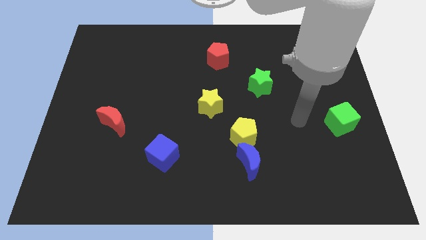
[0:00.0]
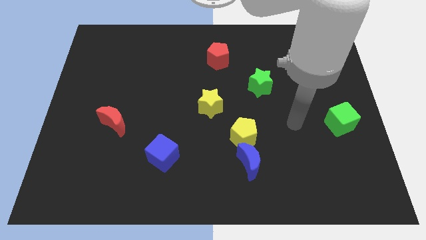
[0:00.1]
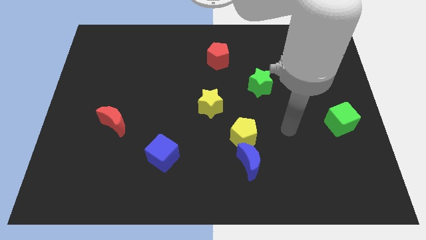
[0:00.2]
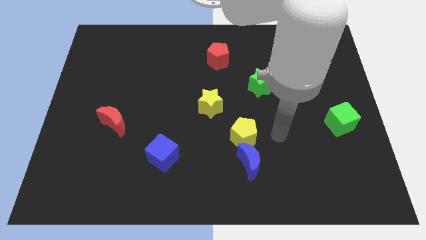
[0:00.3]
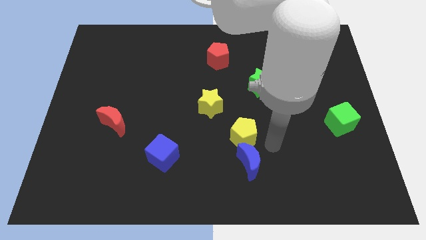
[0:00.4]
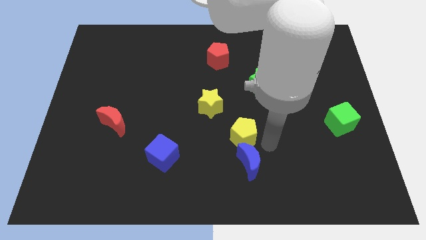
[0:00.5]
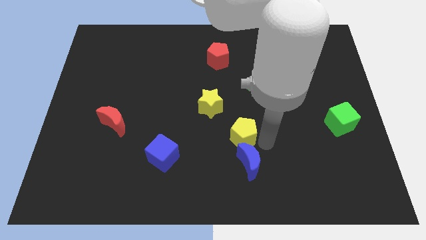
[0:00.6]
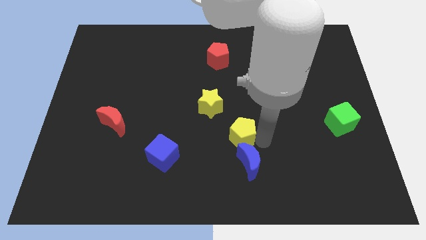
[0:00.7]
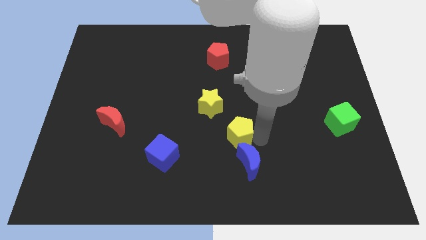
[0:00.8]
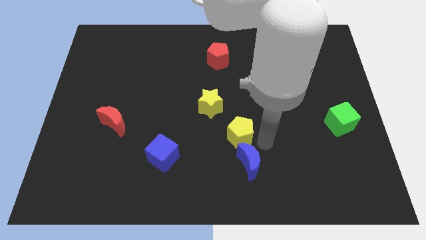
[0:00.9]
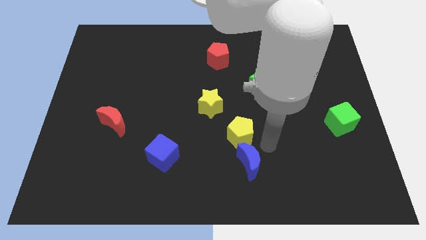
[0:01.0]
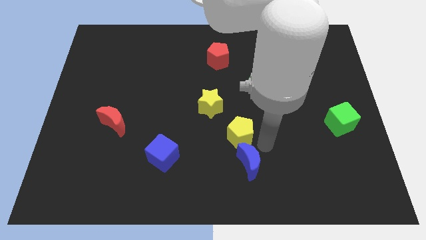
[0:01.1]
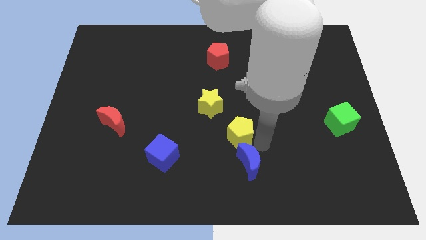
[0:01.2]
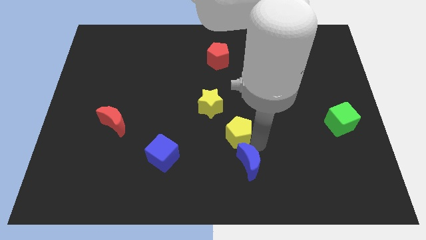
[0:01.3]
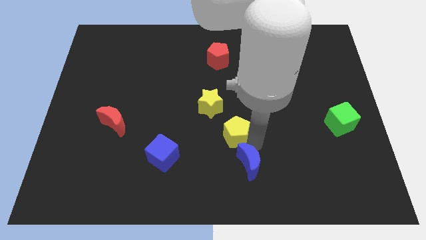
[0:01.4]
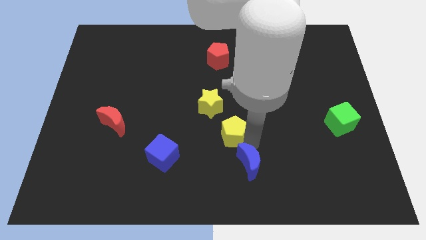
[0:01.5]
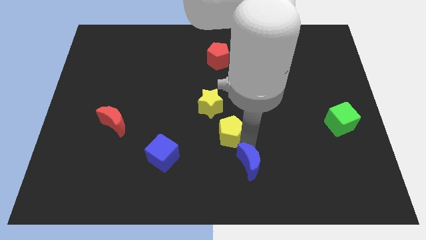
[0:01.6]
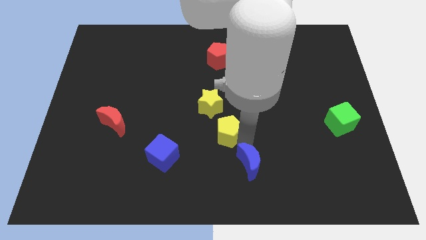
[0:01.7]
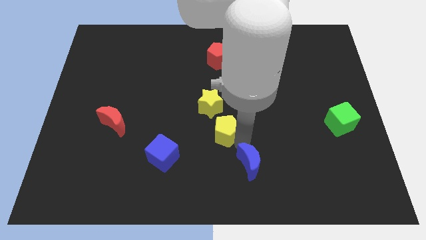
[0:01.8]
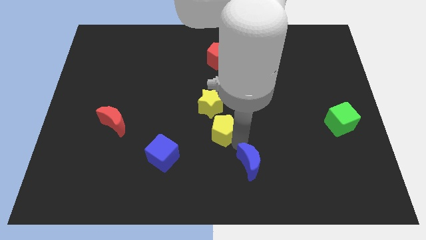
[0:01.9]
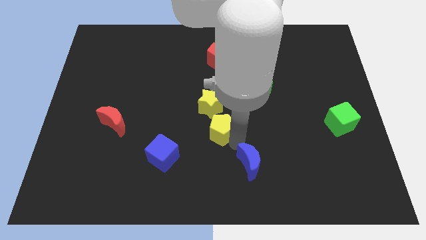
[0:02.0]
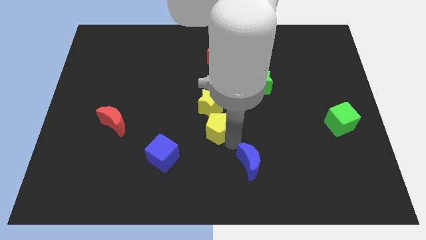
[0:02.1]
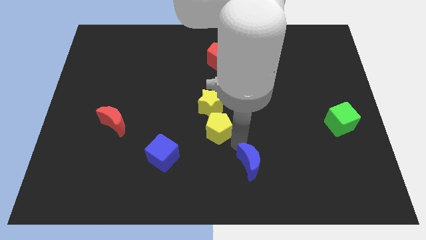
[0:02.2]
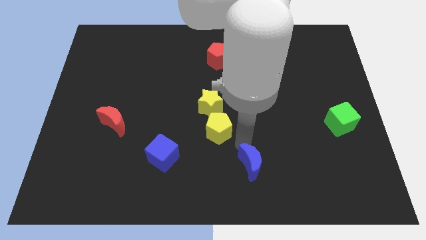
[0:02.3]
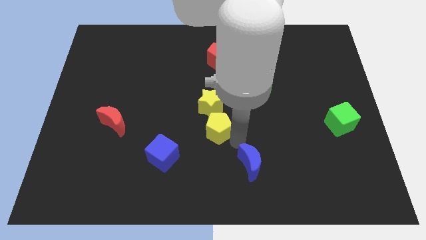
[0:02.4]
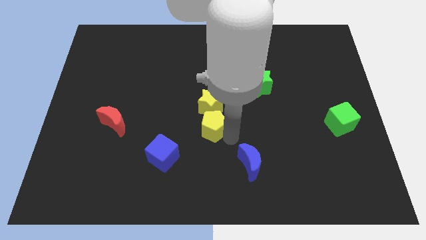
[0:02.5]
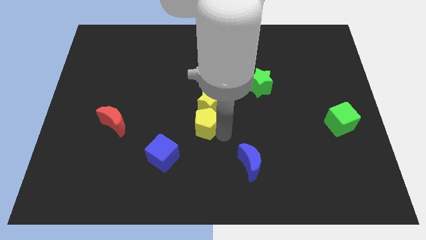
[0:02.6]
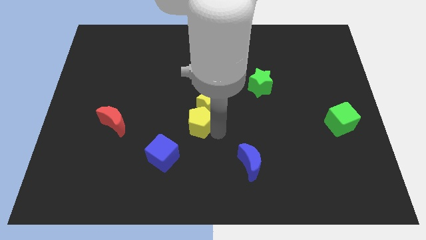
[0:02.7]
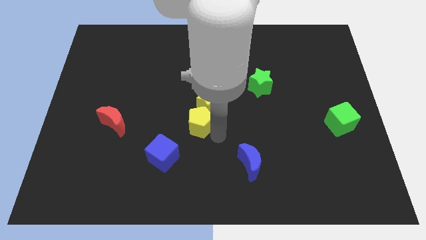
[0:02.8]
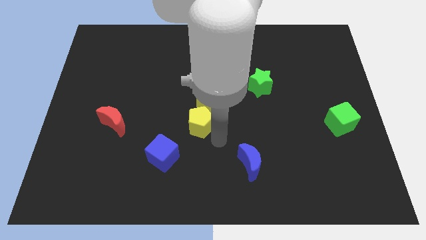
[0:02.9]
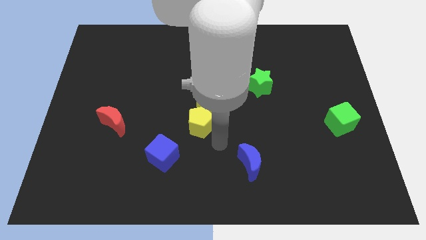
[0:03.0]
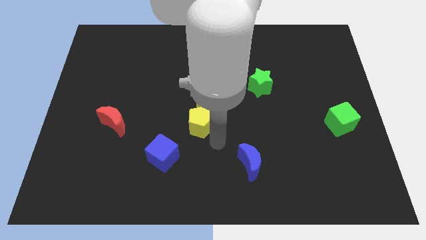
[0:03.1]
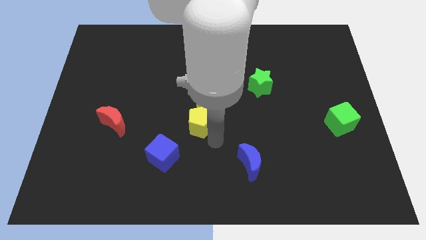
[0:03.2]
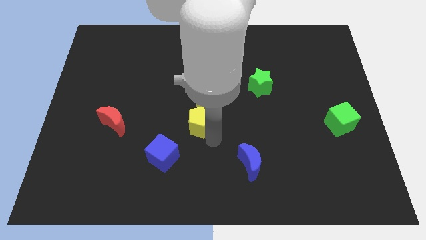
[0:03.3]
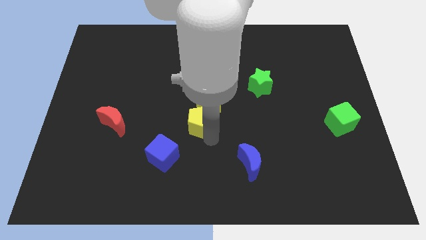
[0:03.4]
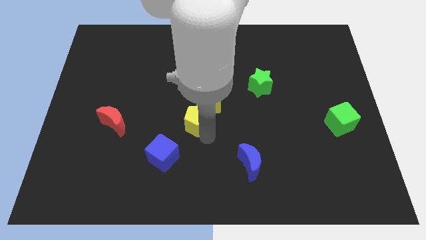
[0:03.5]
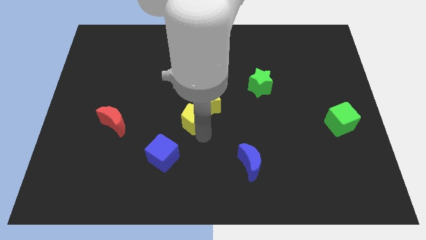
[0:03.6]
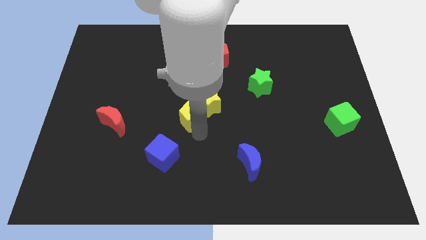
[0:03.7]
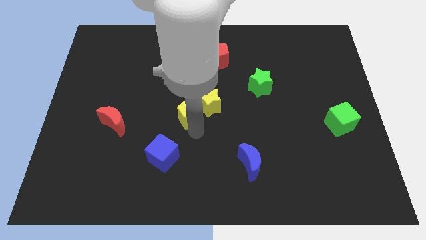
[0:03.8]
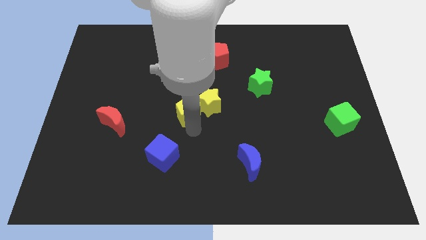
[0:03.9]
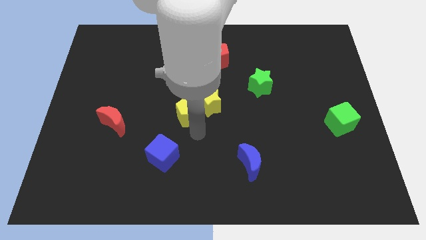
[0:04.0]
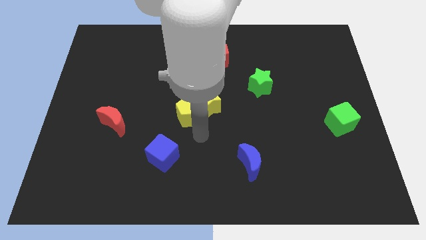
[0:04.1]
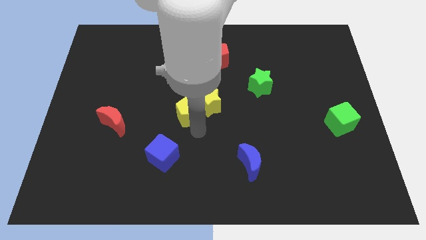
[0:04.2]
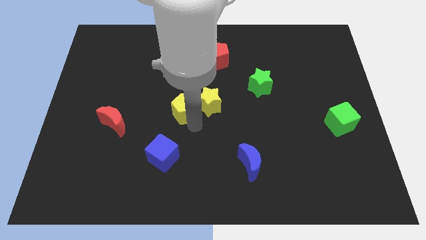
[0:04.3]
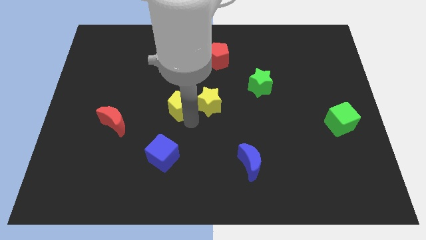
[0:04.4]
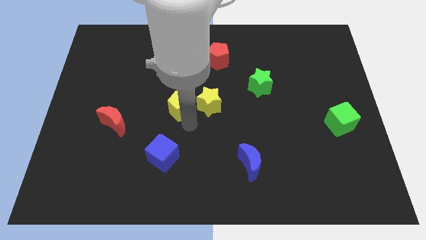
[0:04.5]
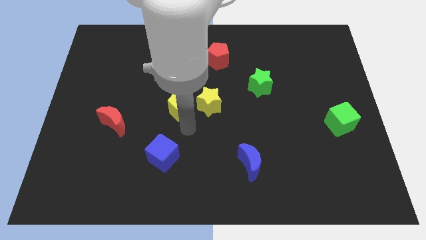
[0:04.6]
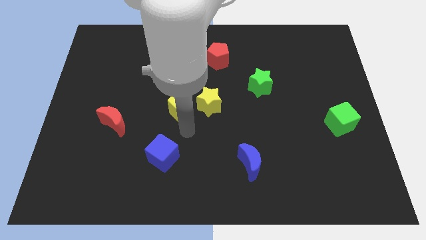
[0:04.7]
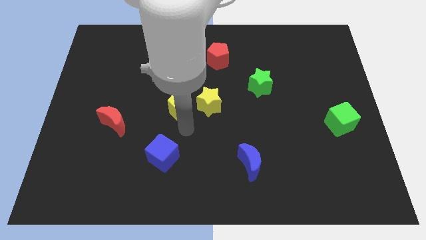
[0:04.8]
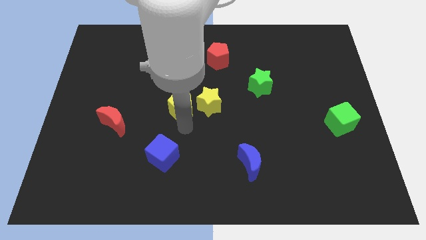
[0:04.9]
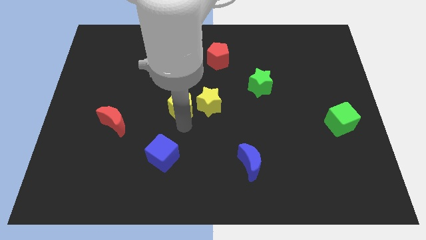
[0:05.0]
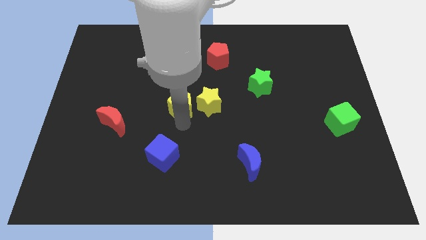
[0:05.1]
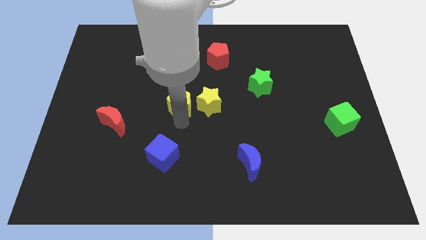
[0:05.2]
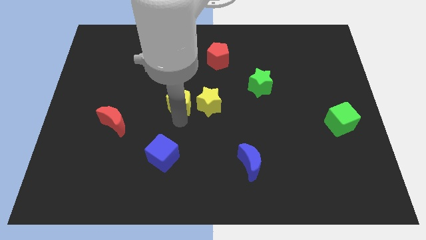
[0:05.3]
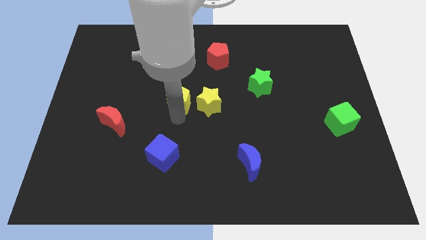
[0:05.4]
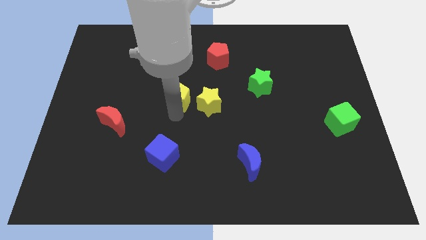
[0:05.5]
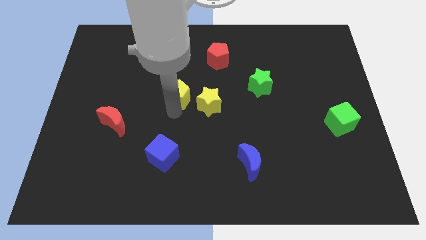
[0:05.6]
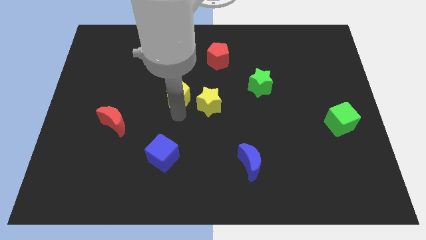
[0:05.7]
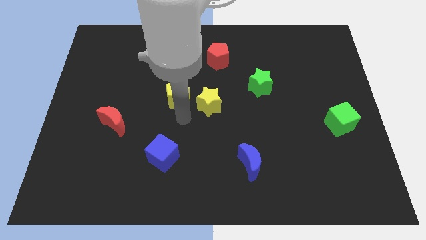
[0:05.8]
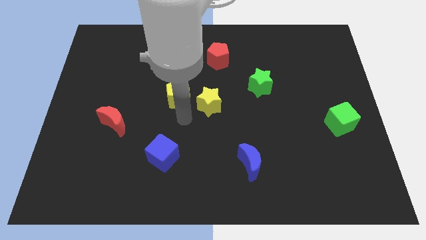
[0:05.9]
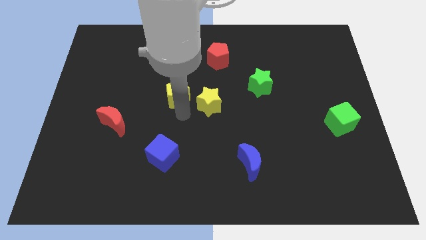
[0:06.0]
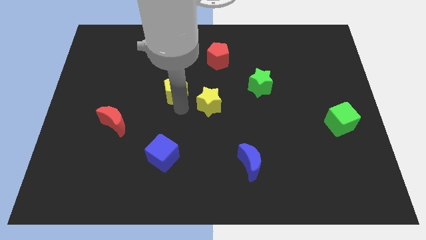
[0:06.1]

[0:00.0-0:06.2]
slide the yellow pentagon up and to the left diagonally

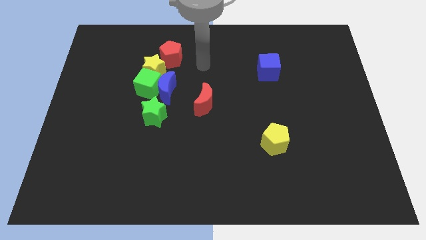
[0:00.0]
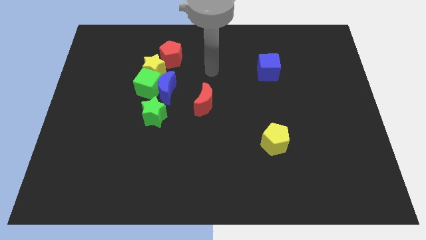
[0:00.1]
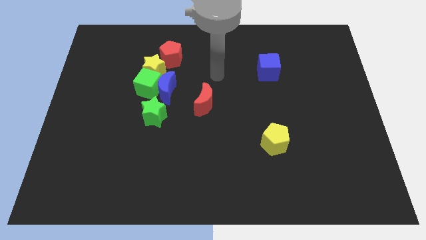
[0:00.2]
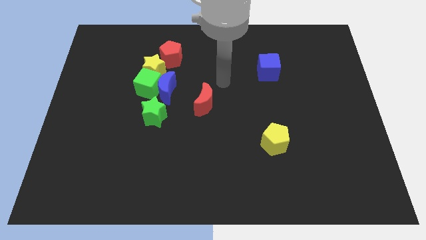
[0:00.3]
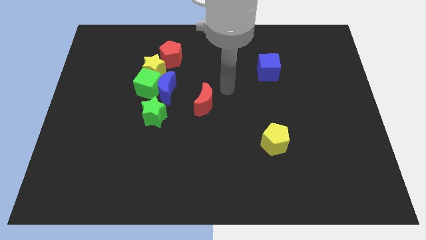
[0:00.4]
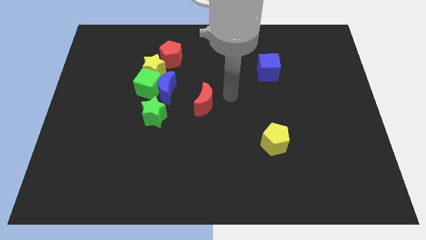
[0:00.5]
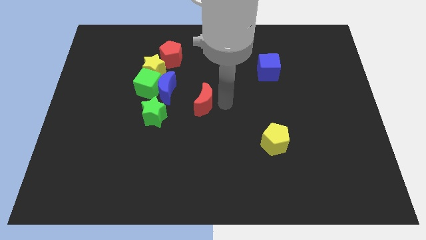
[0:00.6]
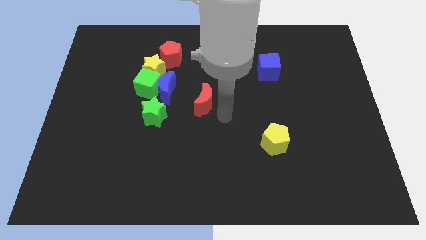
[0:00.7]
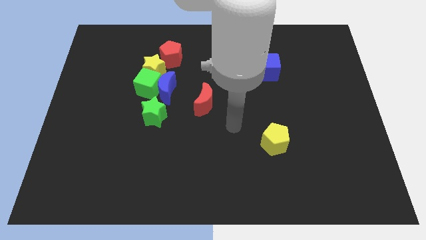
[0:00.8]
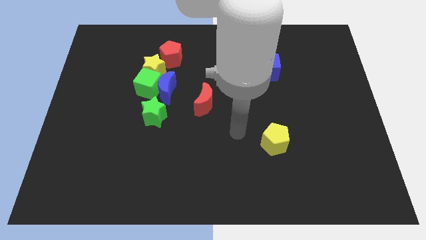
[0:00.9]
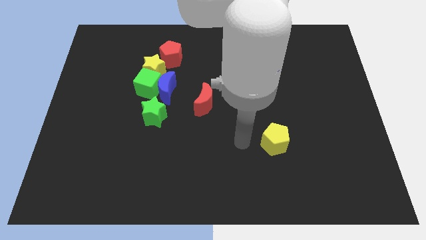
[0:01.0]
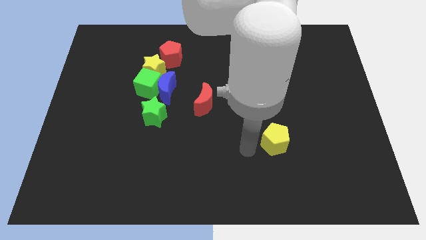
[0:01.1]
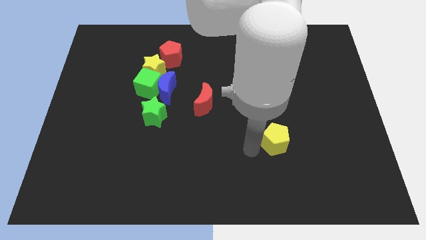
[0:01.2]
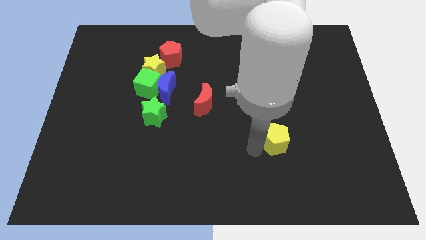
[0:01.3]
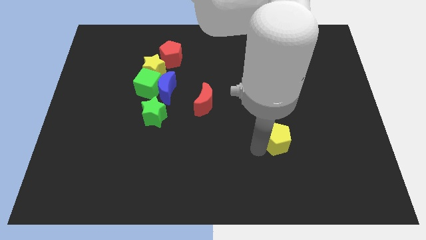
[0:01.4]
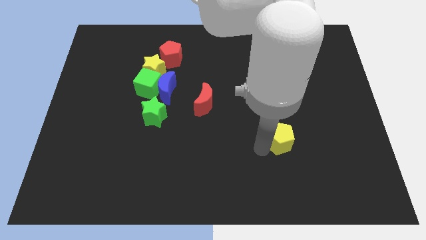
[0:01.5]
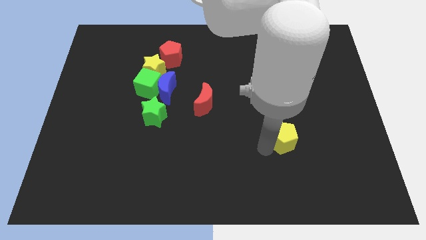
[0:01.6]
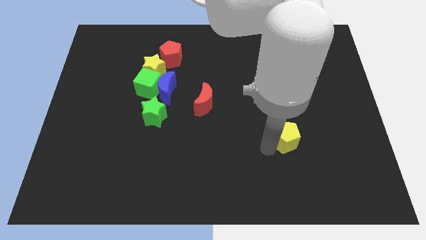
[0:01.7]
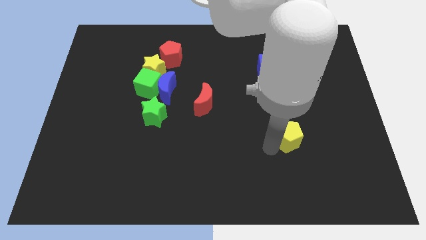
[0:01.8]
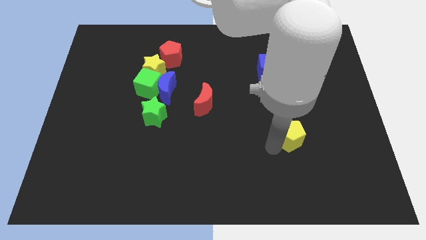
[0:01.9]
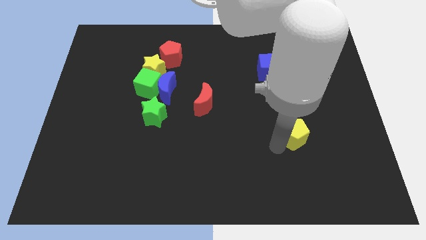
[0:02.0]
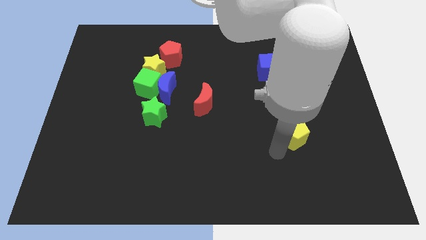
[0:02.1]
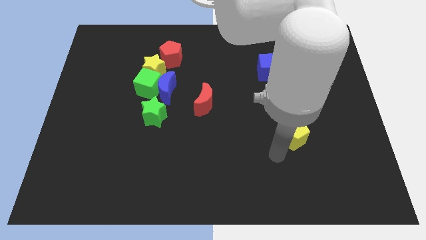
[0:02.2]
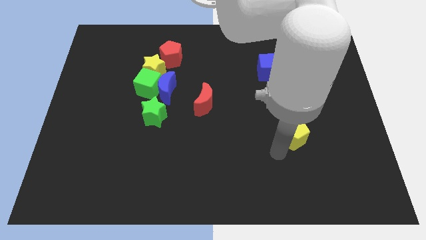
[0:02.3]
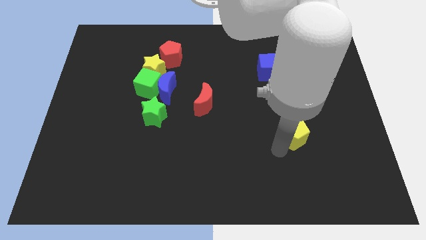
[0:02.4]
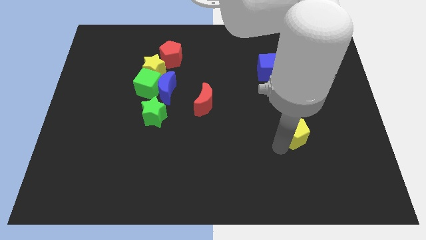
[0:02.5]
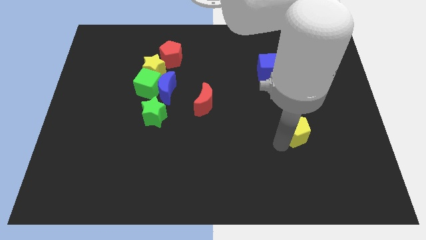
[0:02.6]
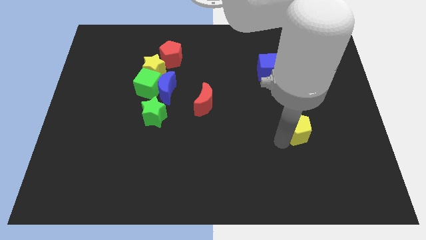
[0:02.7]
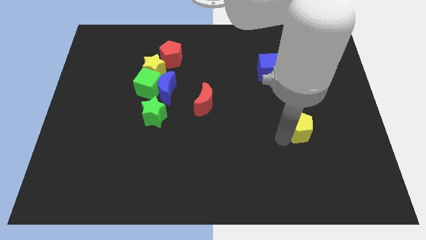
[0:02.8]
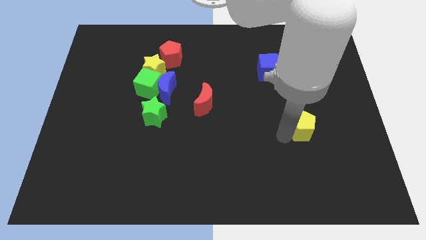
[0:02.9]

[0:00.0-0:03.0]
slightly move the yellow pentagon diagonally up and right
